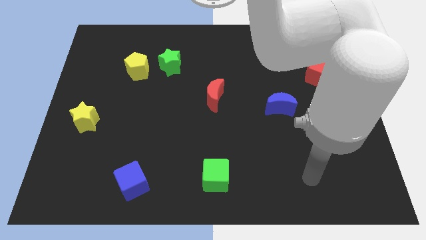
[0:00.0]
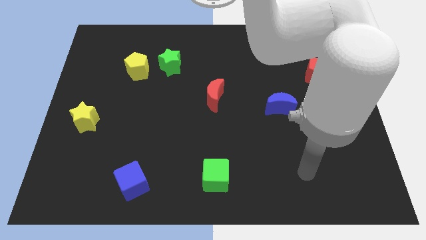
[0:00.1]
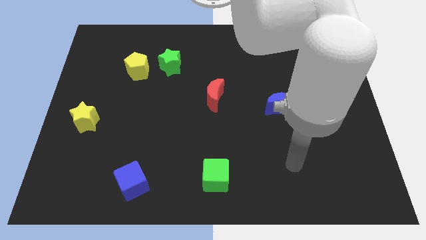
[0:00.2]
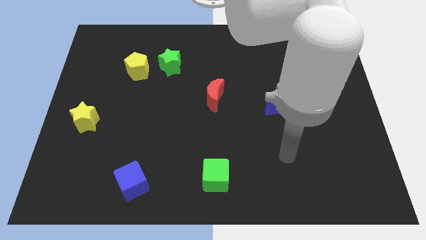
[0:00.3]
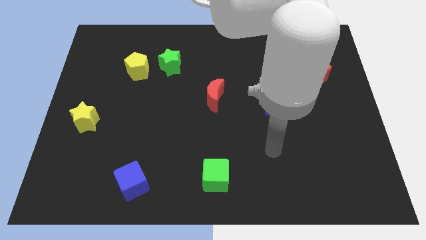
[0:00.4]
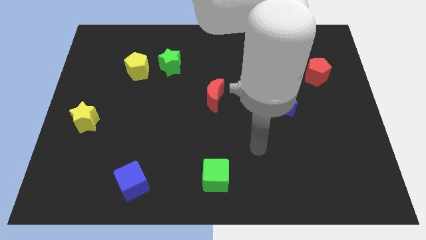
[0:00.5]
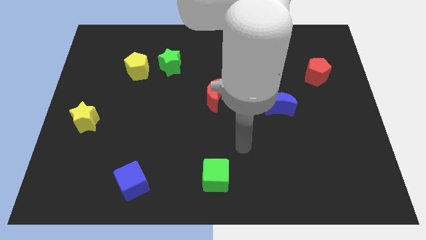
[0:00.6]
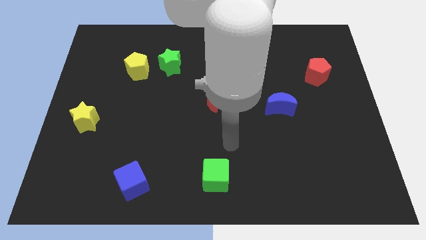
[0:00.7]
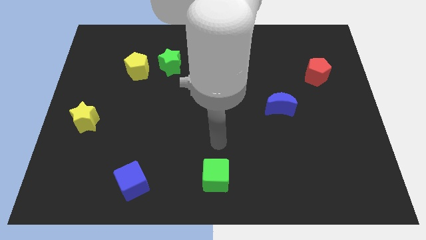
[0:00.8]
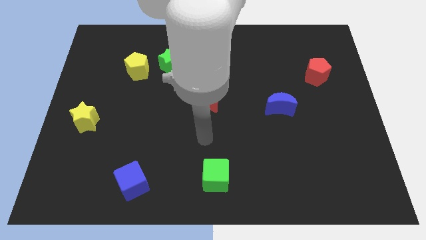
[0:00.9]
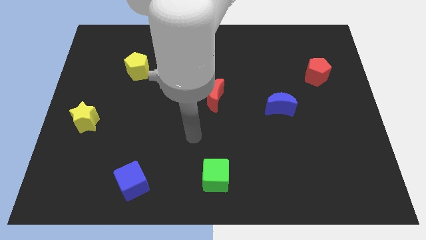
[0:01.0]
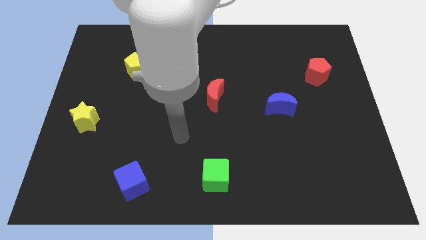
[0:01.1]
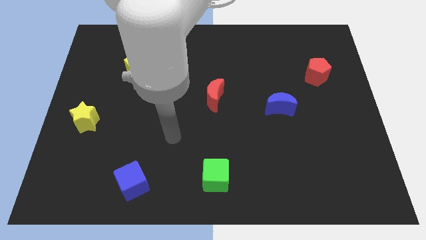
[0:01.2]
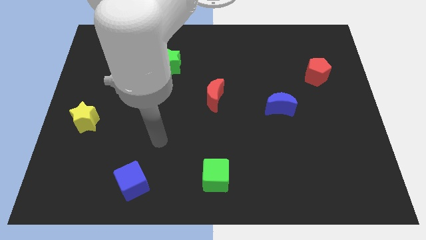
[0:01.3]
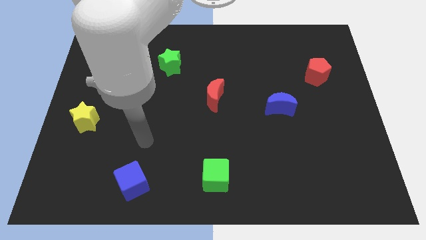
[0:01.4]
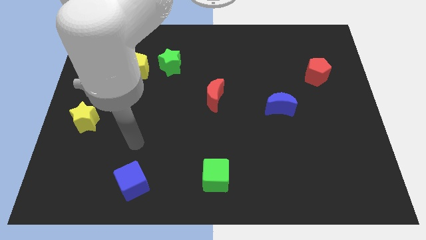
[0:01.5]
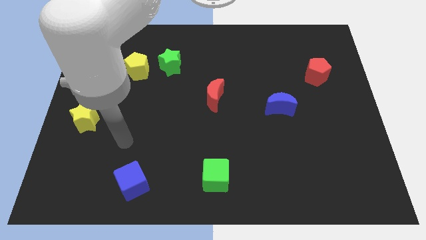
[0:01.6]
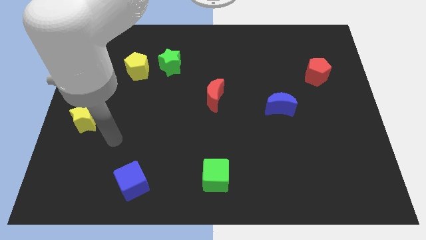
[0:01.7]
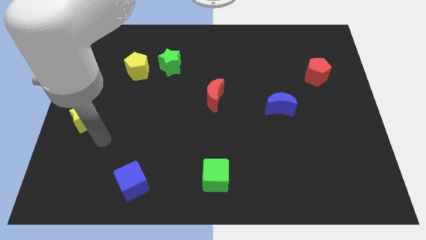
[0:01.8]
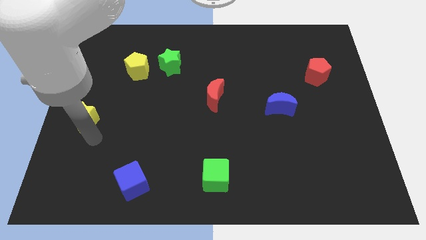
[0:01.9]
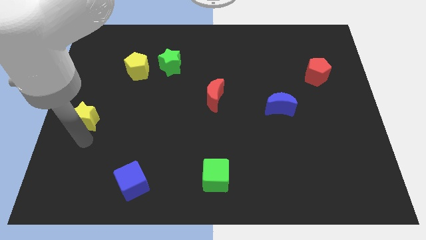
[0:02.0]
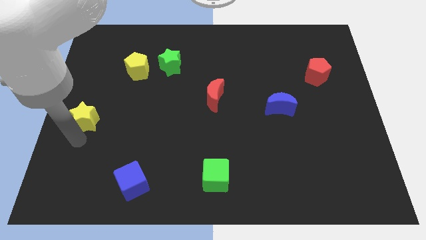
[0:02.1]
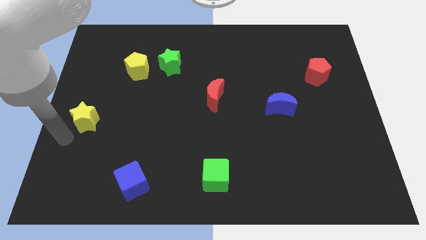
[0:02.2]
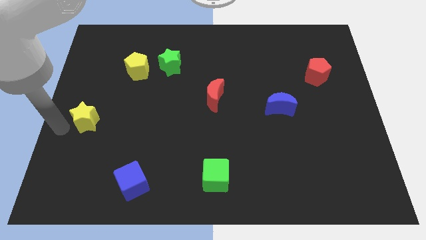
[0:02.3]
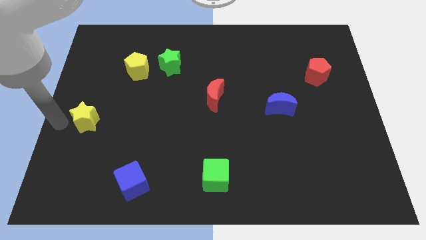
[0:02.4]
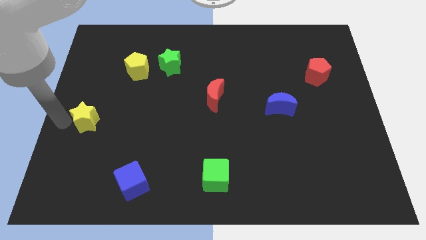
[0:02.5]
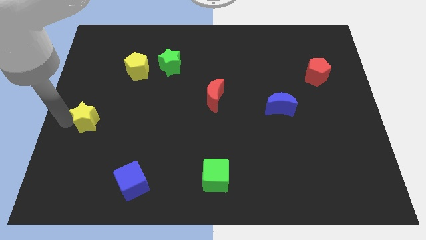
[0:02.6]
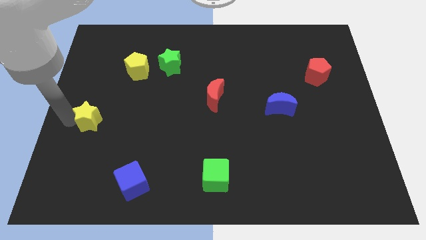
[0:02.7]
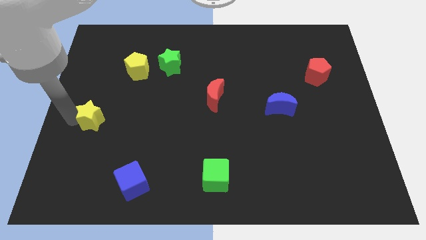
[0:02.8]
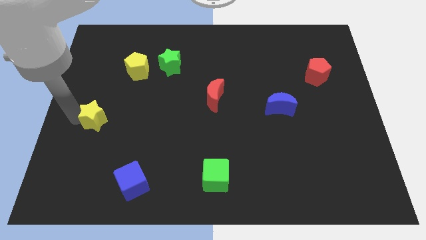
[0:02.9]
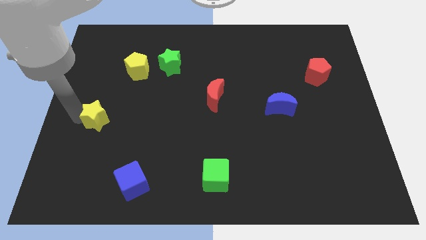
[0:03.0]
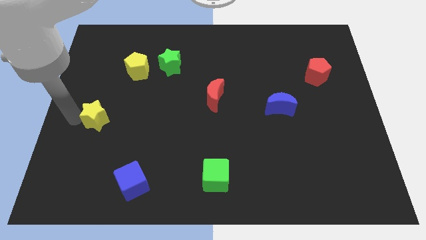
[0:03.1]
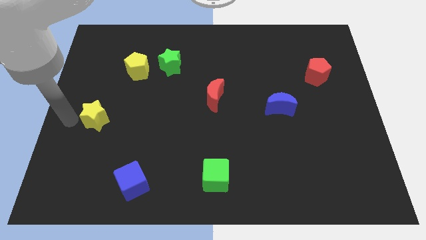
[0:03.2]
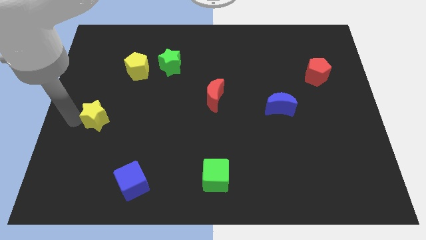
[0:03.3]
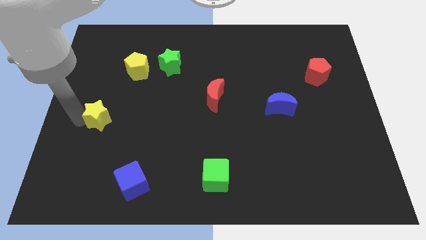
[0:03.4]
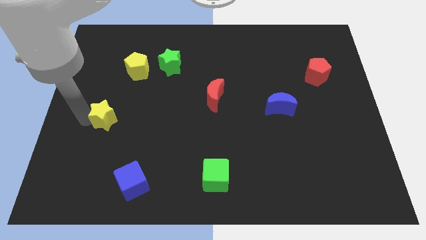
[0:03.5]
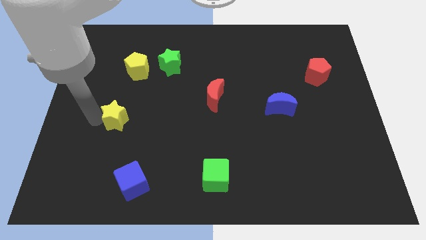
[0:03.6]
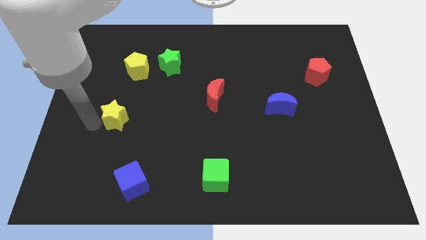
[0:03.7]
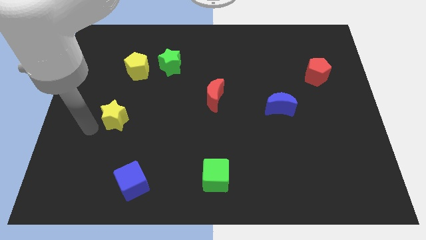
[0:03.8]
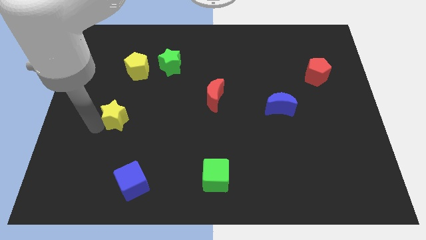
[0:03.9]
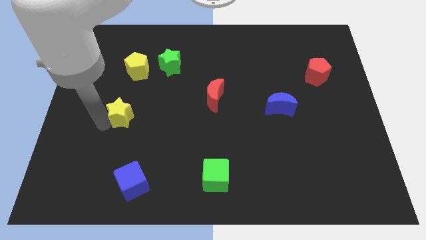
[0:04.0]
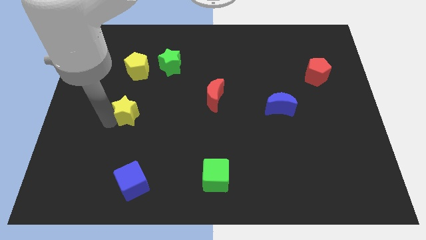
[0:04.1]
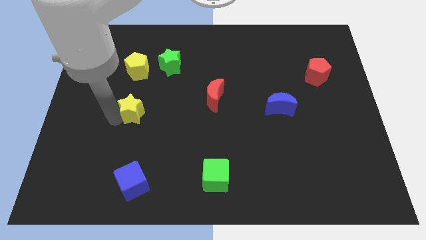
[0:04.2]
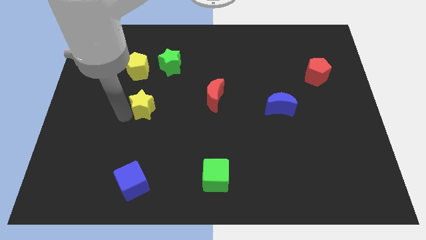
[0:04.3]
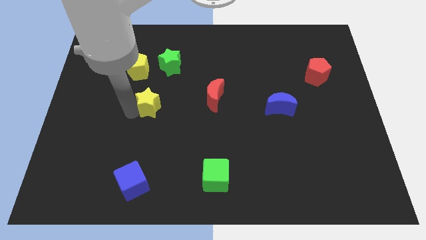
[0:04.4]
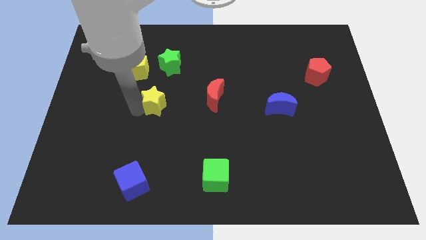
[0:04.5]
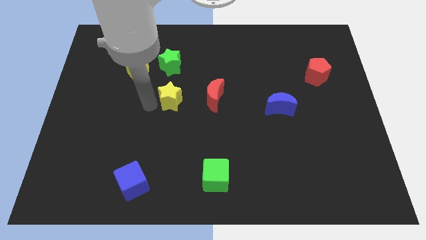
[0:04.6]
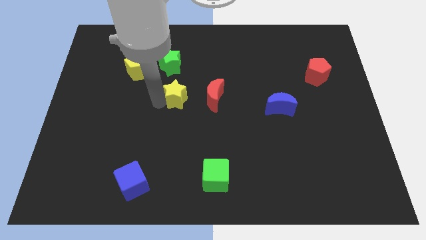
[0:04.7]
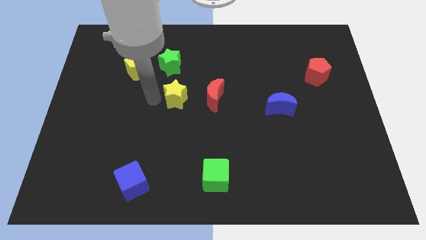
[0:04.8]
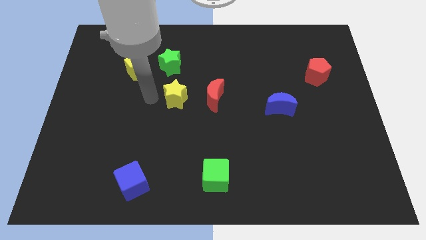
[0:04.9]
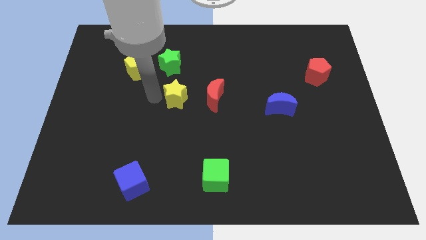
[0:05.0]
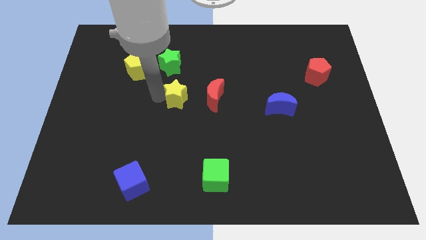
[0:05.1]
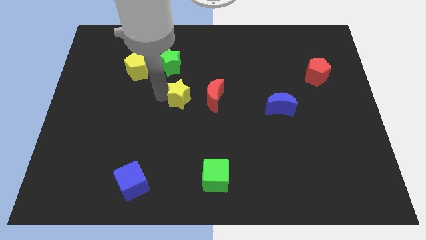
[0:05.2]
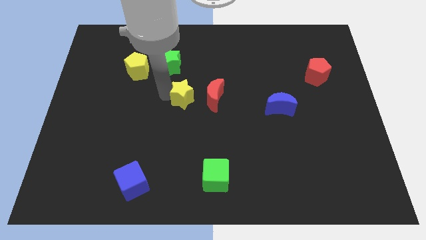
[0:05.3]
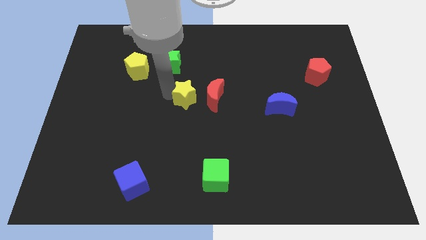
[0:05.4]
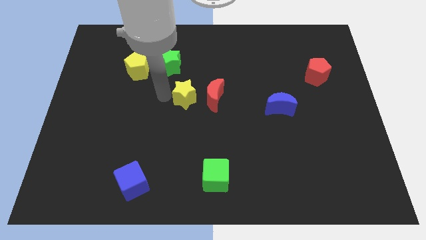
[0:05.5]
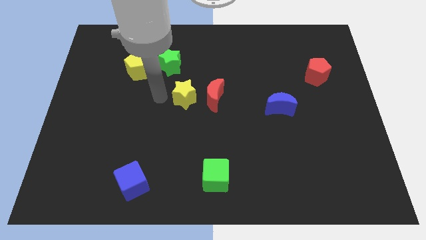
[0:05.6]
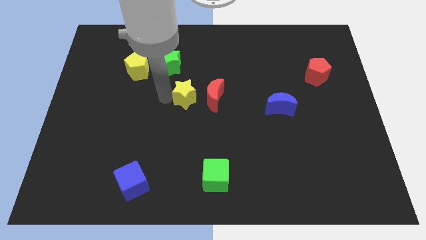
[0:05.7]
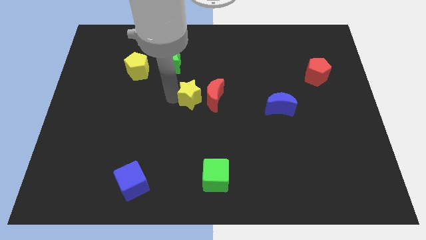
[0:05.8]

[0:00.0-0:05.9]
push the yellow star next to the red moon

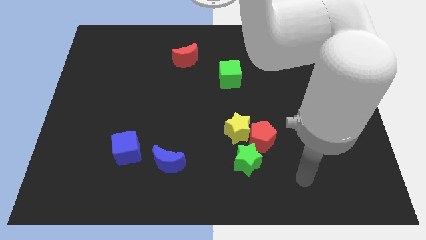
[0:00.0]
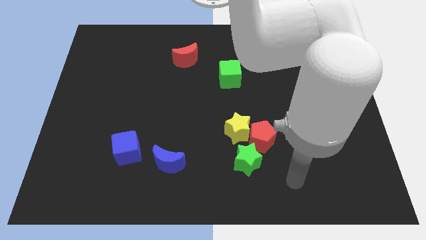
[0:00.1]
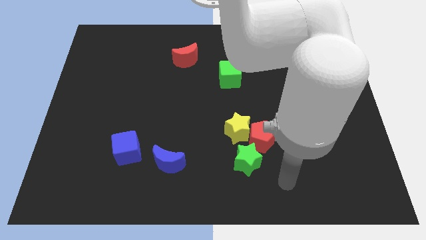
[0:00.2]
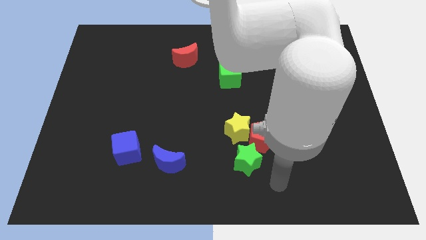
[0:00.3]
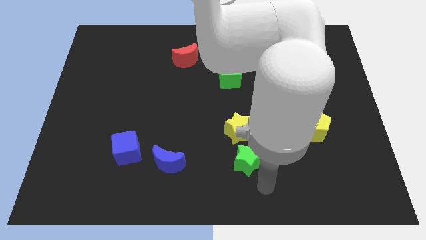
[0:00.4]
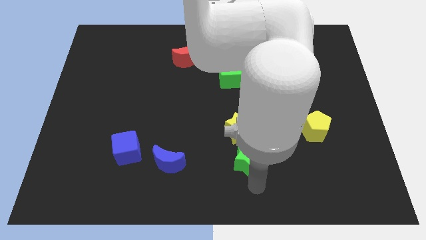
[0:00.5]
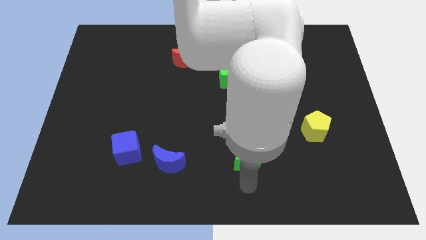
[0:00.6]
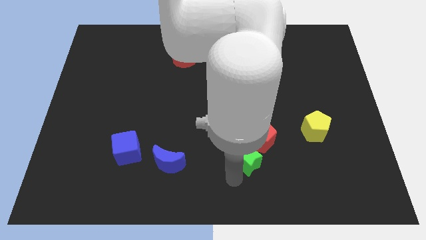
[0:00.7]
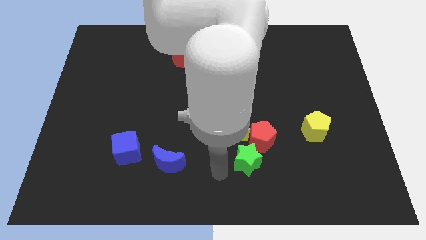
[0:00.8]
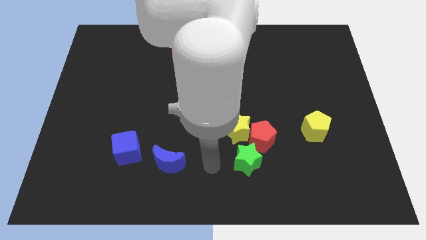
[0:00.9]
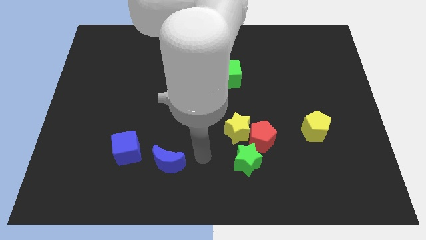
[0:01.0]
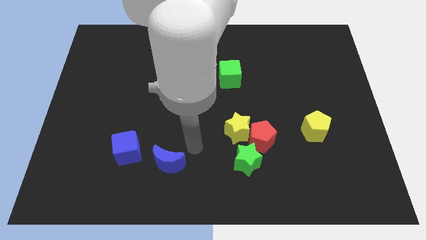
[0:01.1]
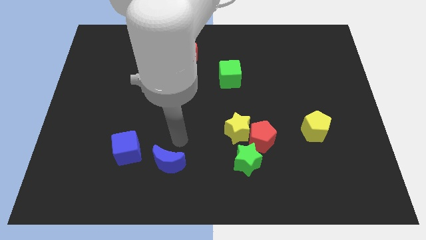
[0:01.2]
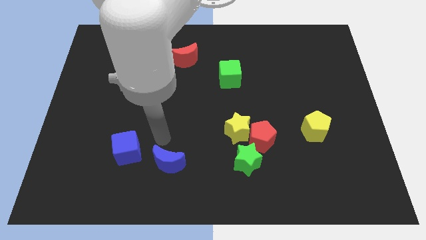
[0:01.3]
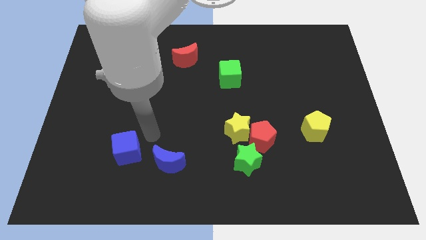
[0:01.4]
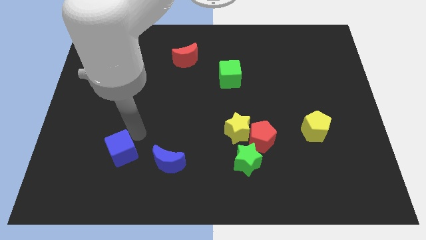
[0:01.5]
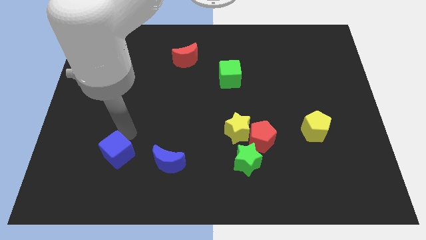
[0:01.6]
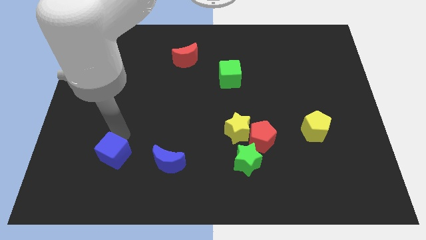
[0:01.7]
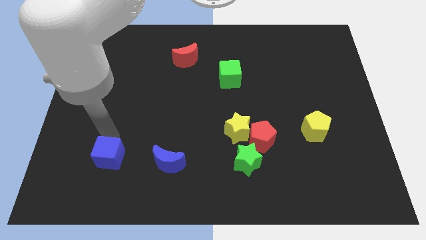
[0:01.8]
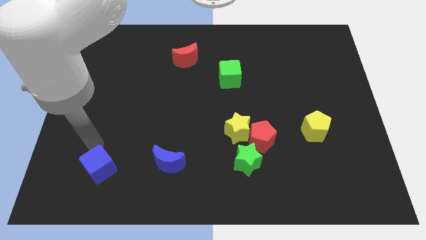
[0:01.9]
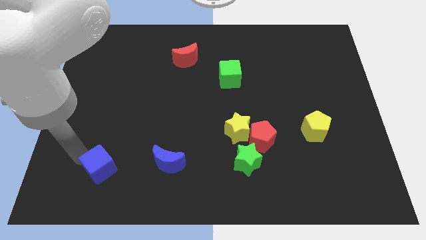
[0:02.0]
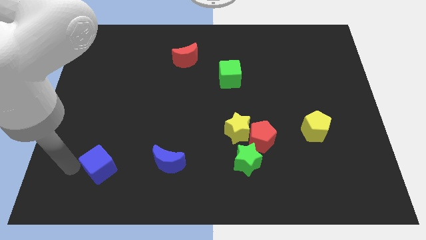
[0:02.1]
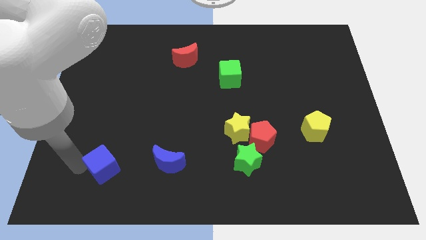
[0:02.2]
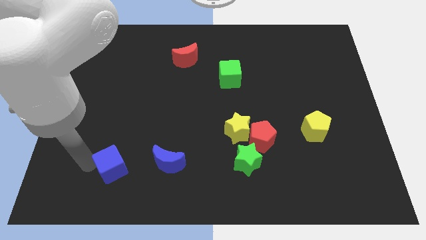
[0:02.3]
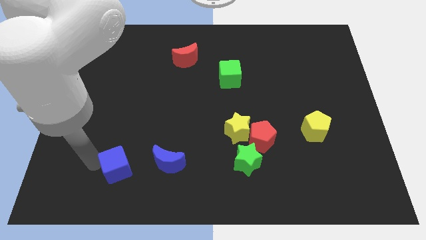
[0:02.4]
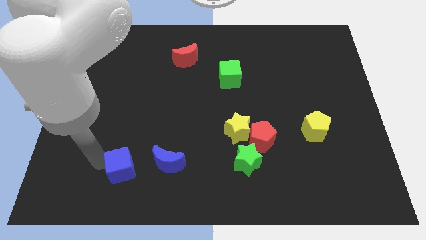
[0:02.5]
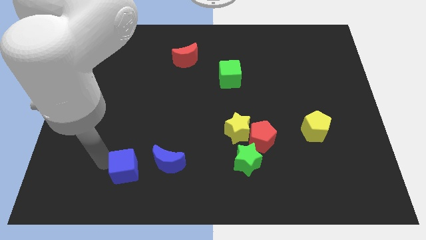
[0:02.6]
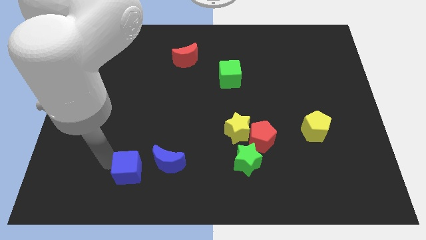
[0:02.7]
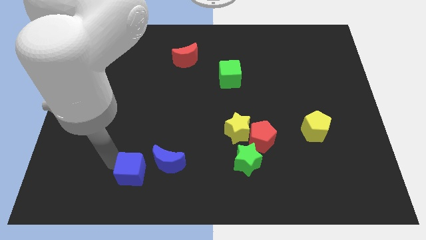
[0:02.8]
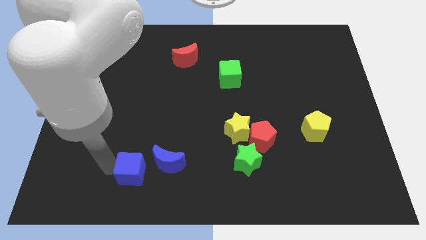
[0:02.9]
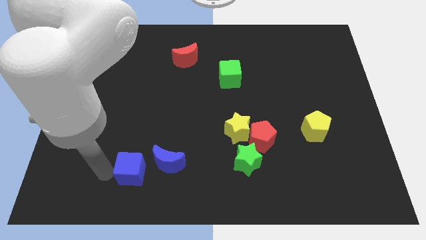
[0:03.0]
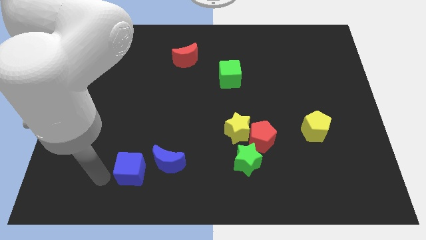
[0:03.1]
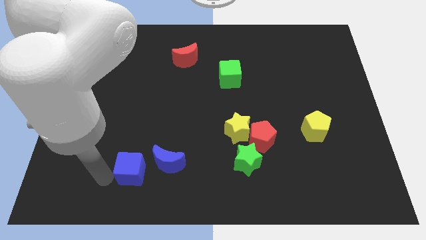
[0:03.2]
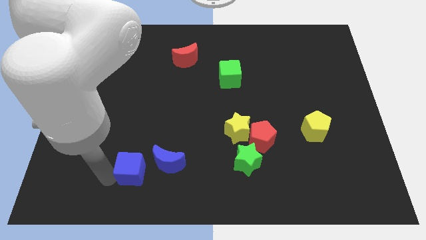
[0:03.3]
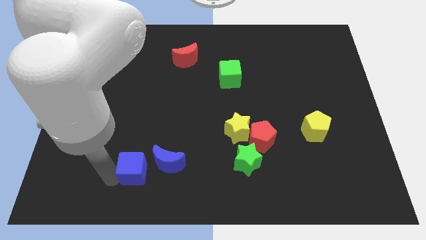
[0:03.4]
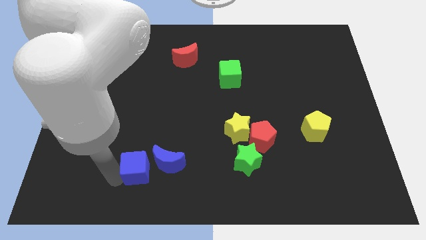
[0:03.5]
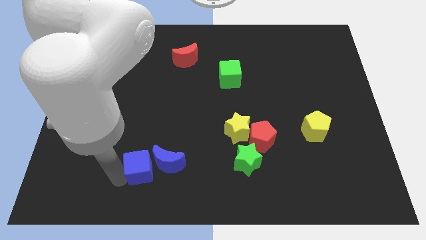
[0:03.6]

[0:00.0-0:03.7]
put the blue cube next to the blue moon
